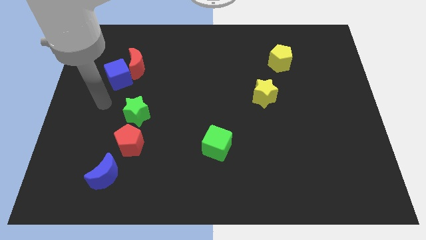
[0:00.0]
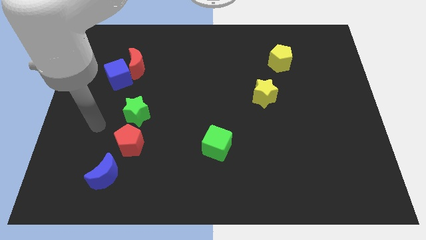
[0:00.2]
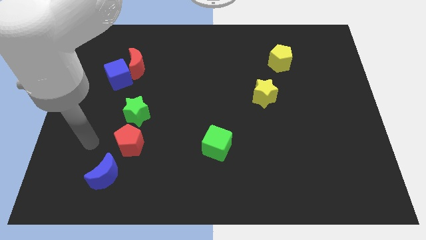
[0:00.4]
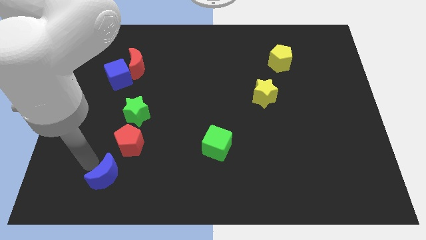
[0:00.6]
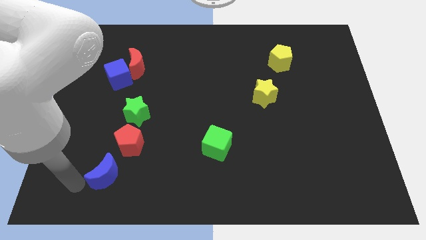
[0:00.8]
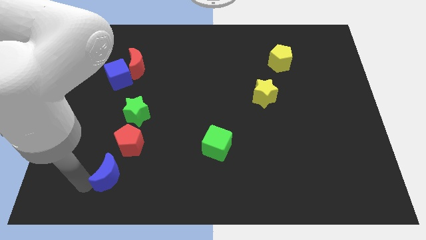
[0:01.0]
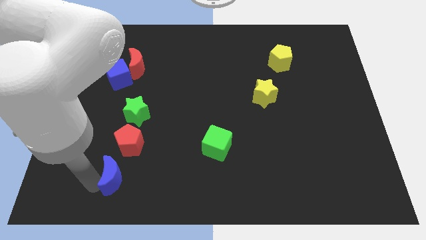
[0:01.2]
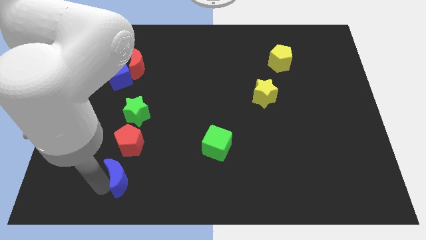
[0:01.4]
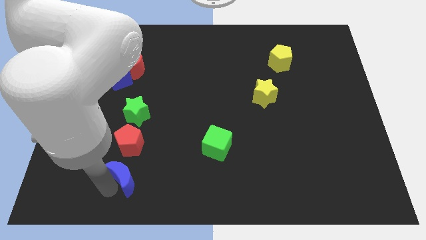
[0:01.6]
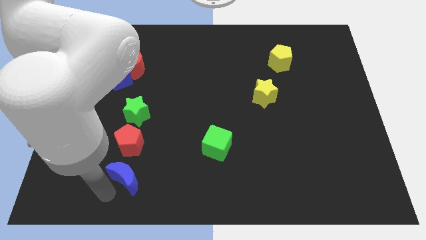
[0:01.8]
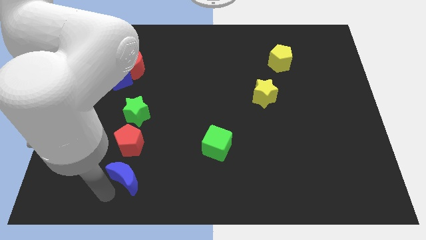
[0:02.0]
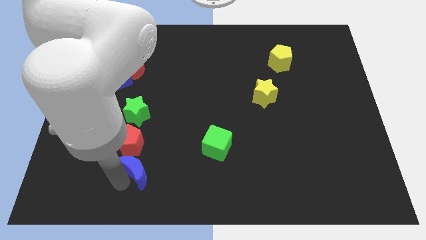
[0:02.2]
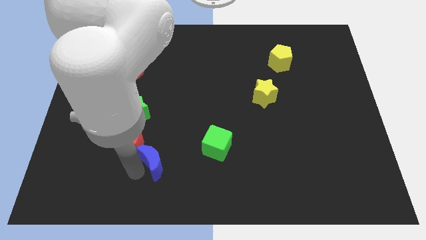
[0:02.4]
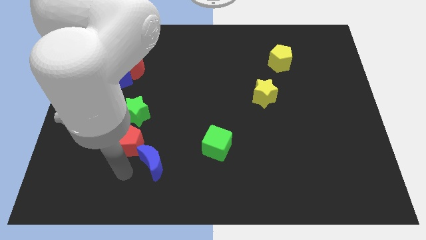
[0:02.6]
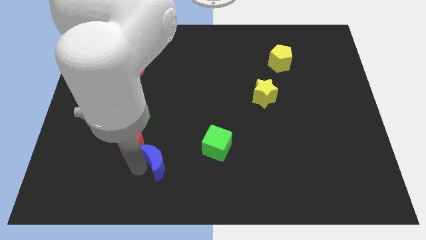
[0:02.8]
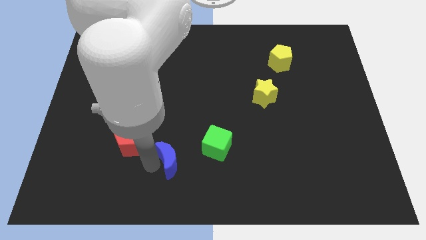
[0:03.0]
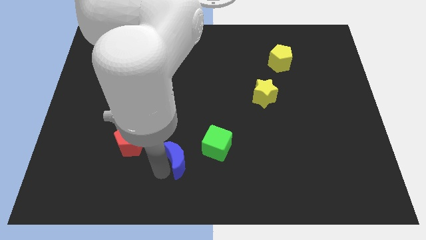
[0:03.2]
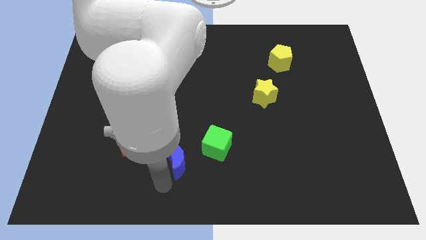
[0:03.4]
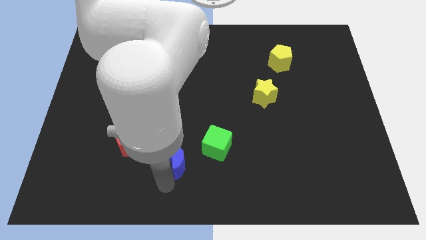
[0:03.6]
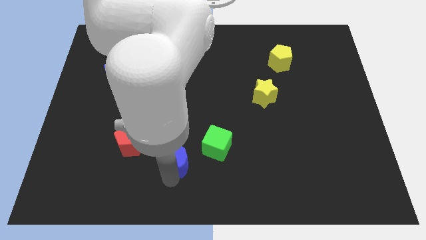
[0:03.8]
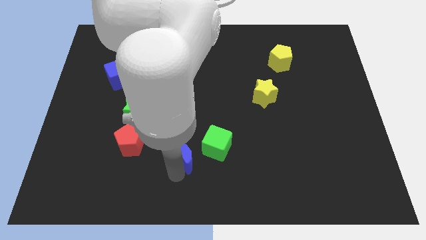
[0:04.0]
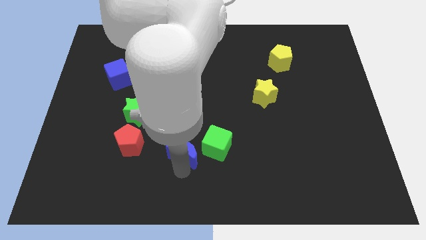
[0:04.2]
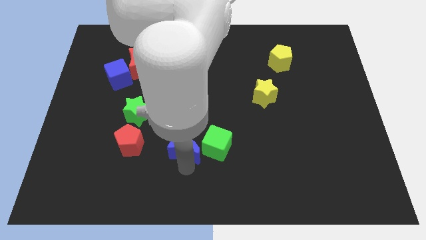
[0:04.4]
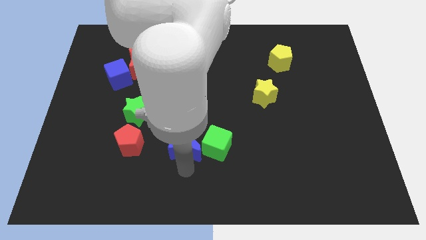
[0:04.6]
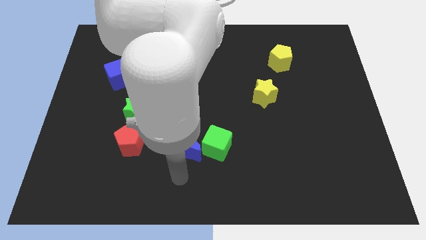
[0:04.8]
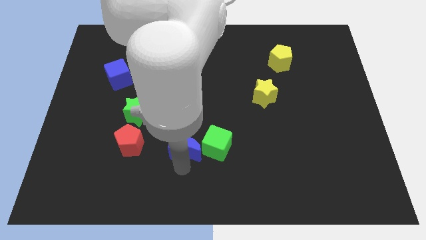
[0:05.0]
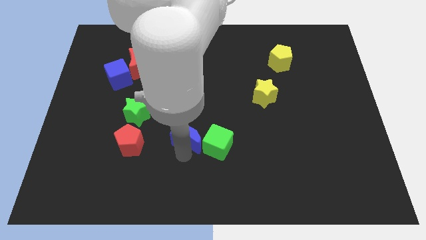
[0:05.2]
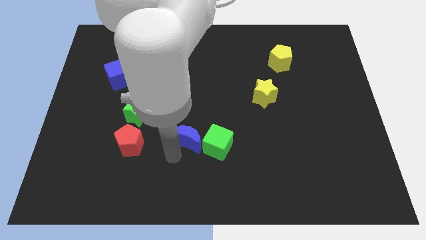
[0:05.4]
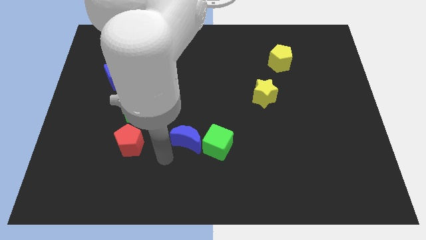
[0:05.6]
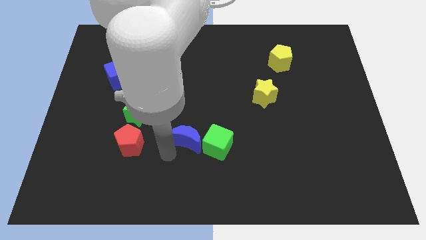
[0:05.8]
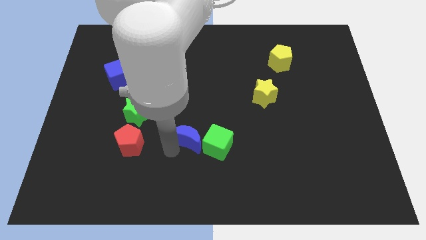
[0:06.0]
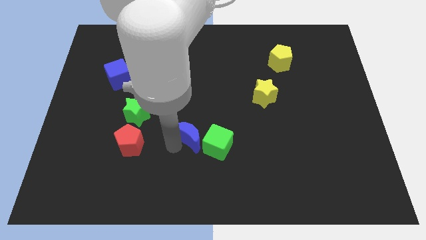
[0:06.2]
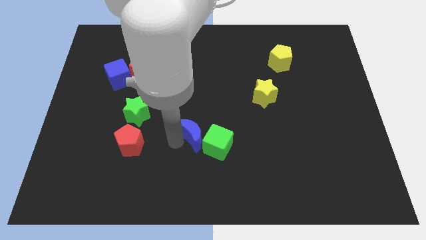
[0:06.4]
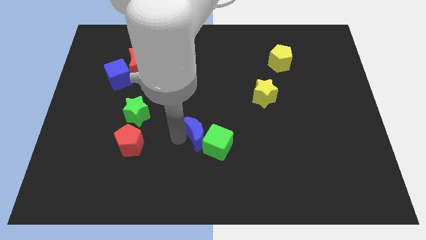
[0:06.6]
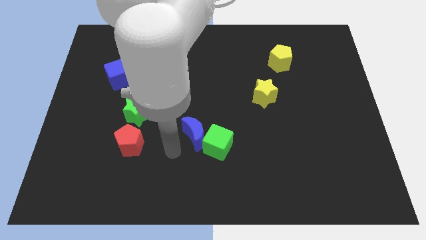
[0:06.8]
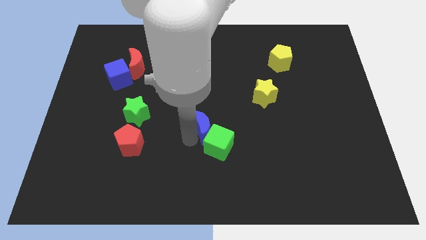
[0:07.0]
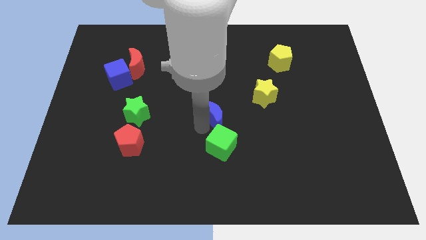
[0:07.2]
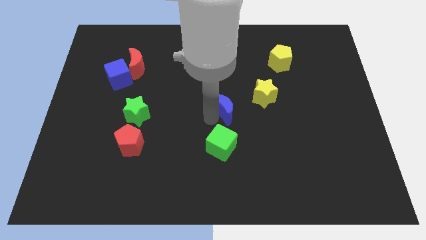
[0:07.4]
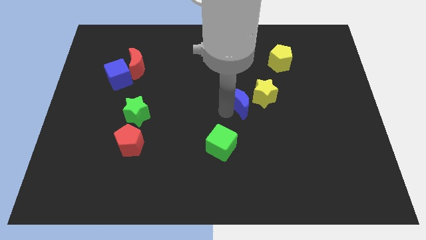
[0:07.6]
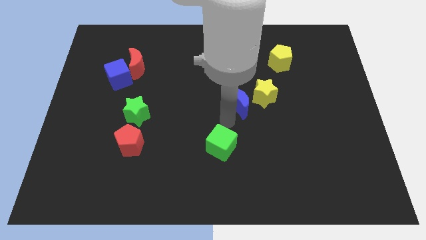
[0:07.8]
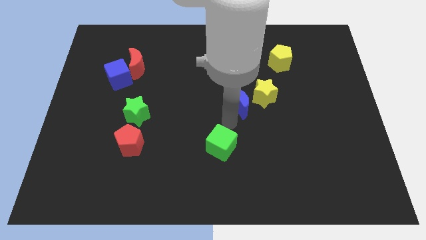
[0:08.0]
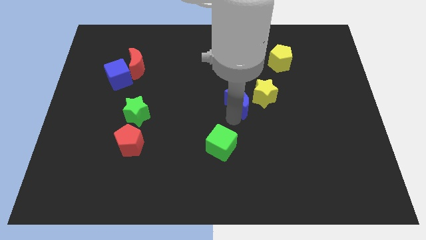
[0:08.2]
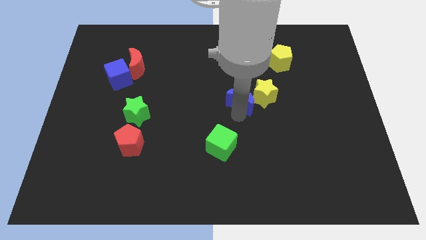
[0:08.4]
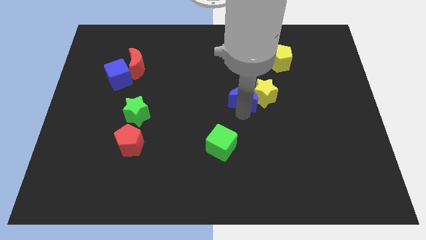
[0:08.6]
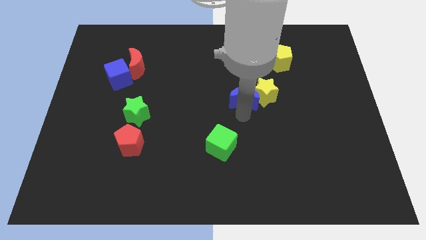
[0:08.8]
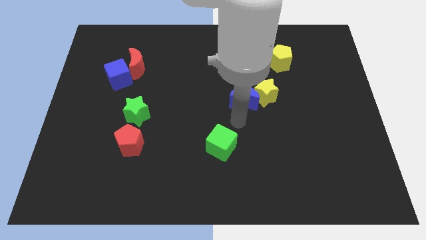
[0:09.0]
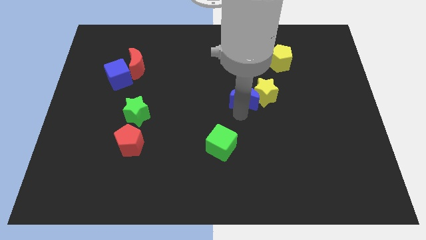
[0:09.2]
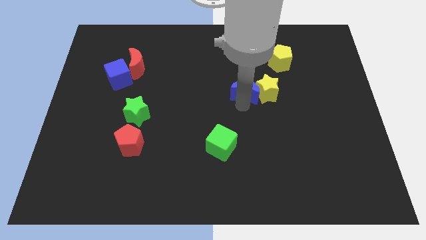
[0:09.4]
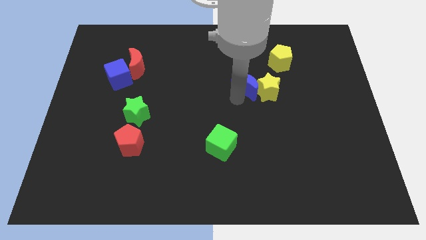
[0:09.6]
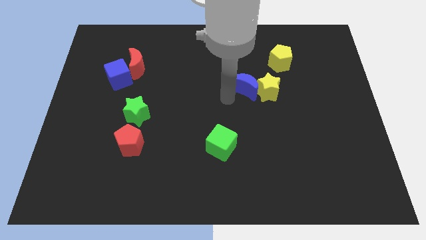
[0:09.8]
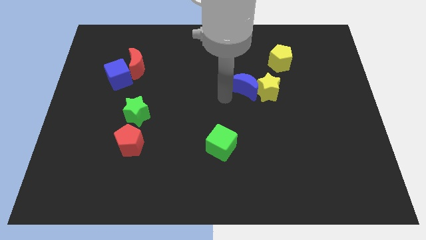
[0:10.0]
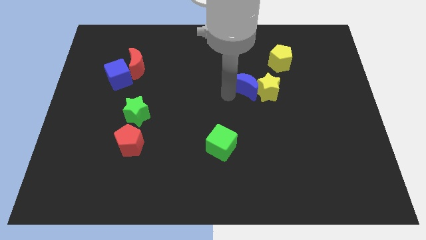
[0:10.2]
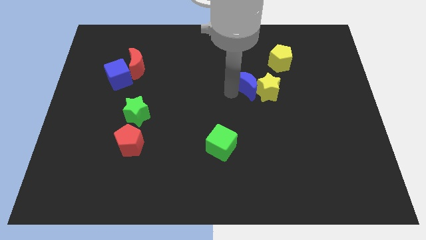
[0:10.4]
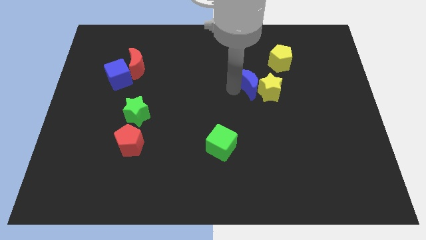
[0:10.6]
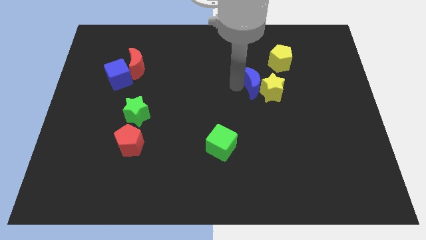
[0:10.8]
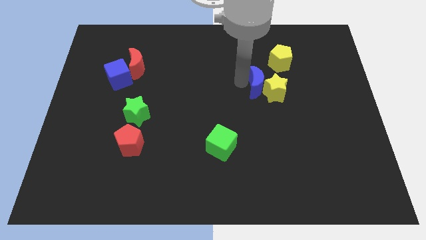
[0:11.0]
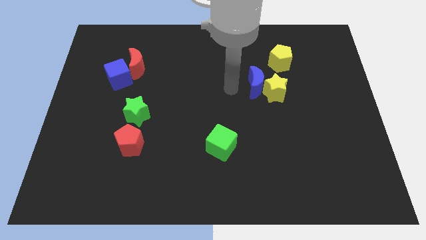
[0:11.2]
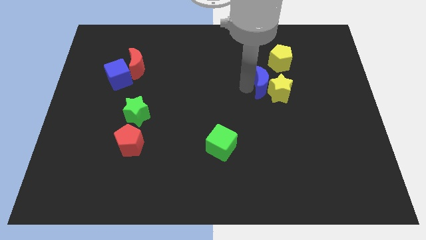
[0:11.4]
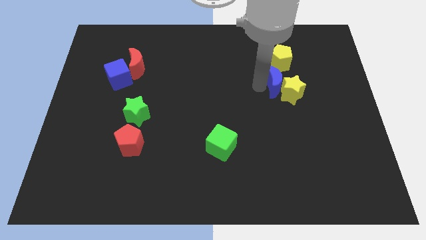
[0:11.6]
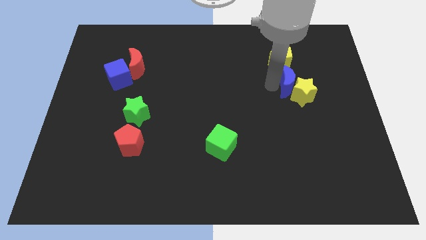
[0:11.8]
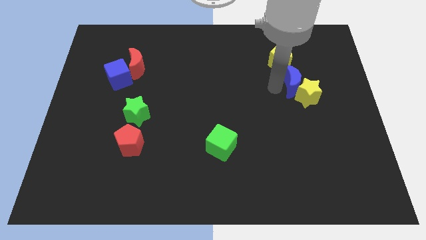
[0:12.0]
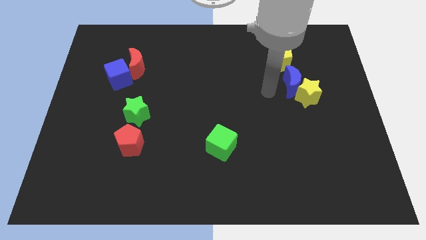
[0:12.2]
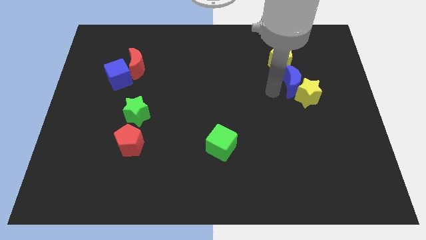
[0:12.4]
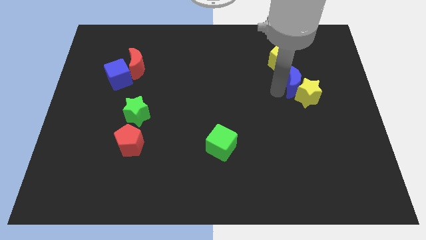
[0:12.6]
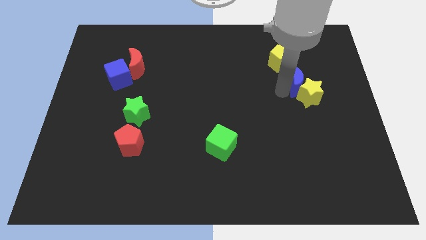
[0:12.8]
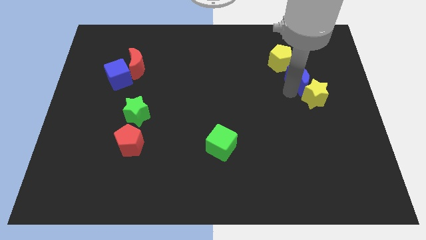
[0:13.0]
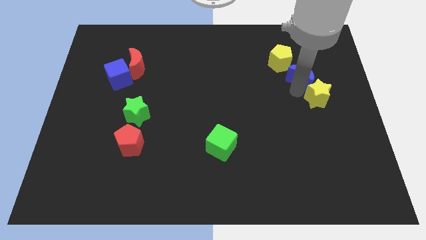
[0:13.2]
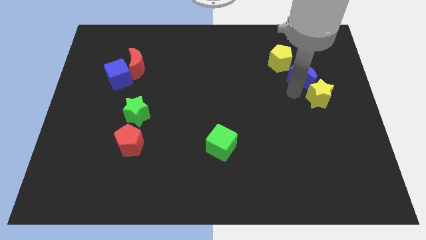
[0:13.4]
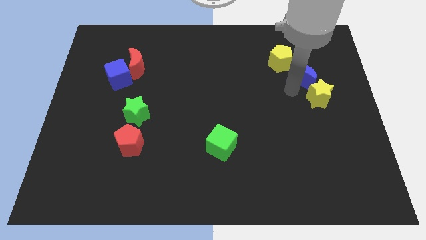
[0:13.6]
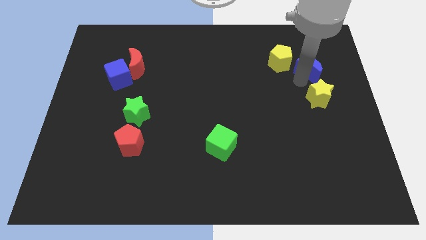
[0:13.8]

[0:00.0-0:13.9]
move the blue moon right of the yellow pentagon

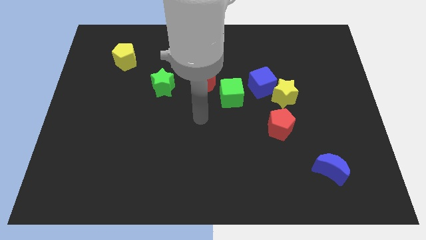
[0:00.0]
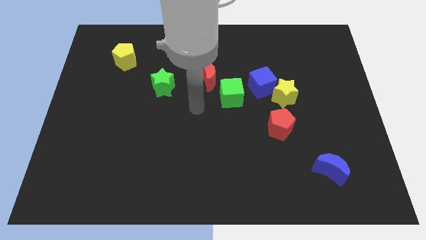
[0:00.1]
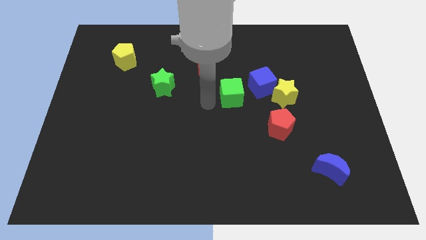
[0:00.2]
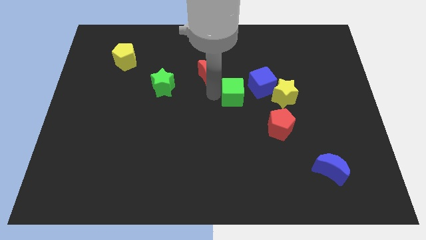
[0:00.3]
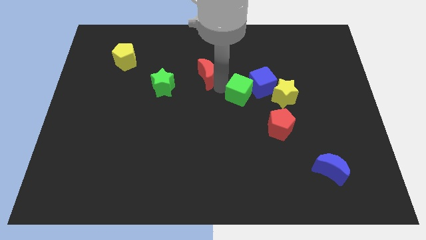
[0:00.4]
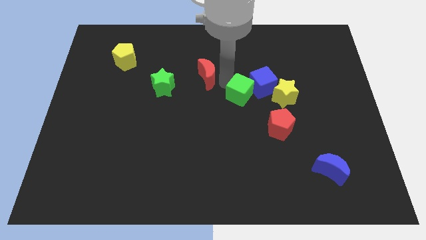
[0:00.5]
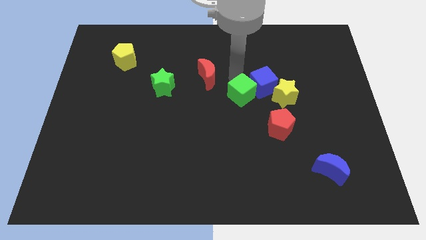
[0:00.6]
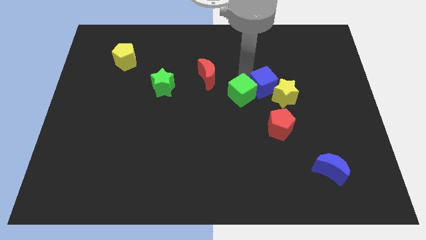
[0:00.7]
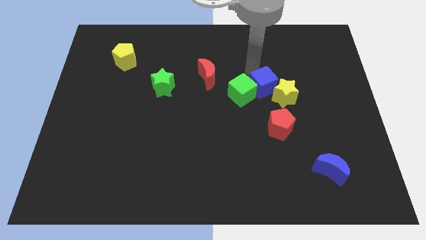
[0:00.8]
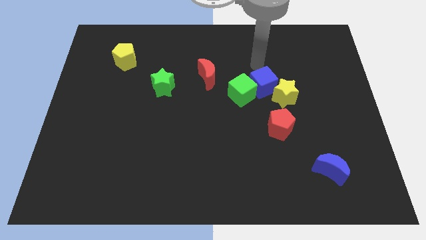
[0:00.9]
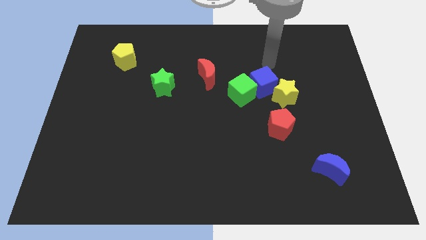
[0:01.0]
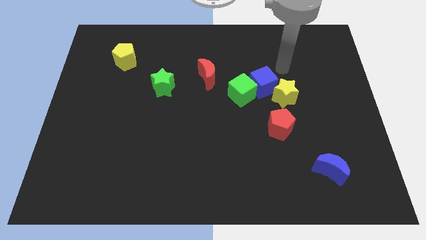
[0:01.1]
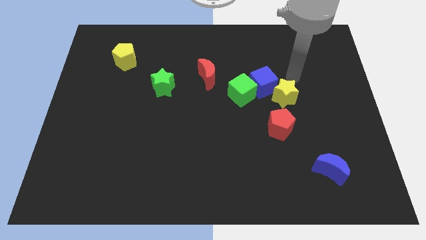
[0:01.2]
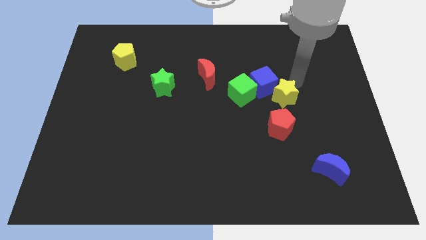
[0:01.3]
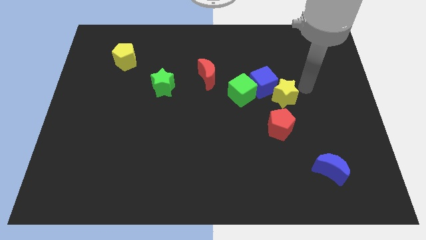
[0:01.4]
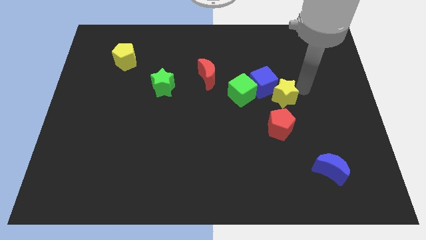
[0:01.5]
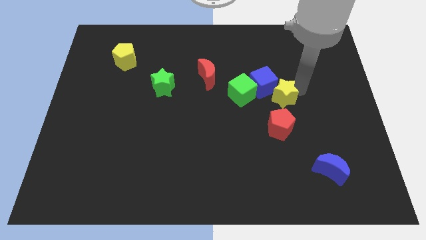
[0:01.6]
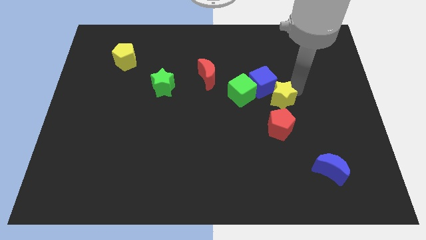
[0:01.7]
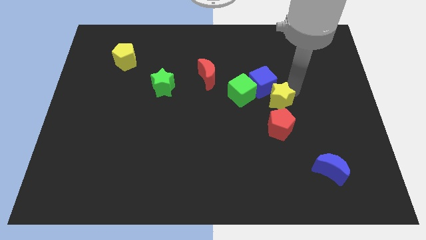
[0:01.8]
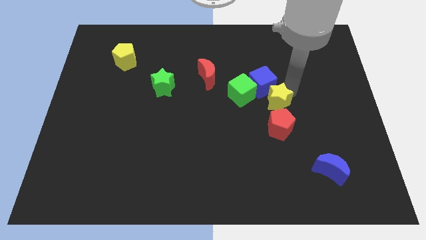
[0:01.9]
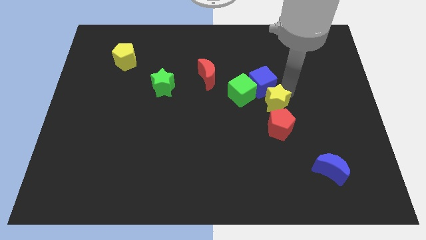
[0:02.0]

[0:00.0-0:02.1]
slide the yellow star to the top left of the red pentagon
